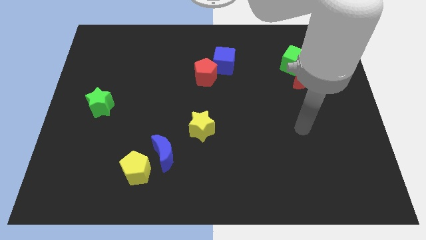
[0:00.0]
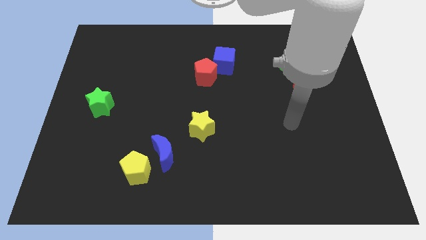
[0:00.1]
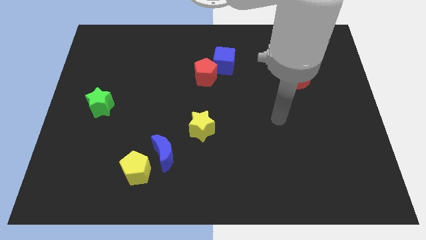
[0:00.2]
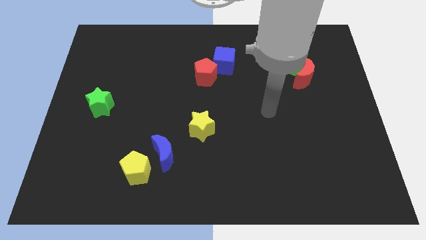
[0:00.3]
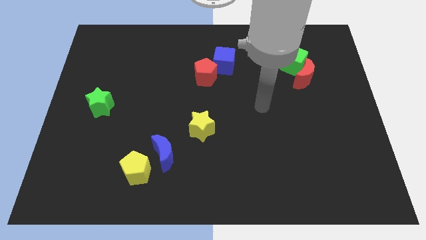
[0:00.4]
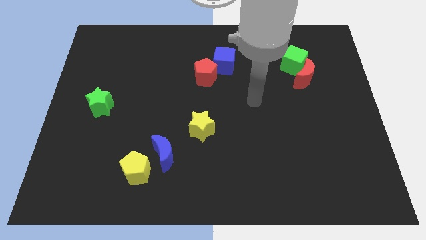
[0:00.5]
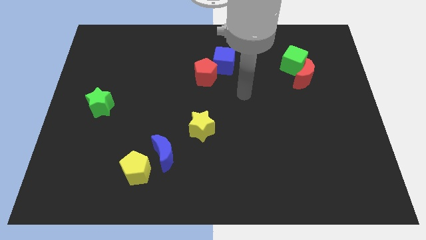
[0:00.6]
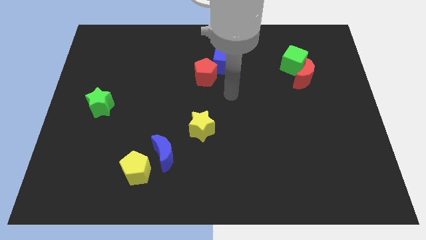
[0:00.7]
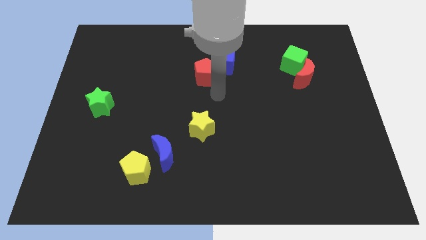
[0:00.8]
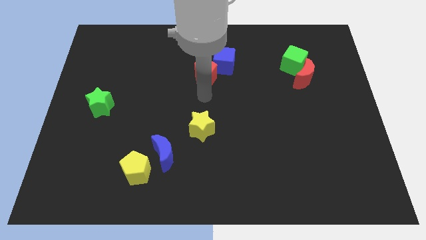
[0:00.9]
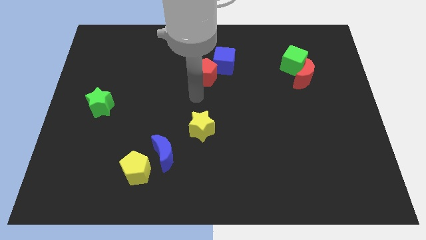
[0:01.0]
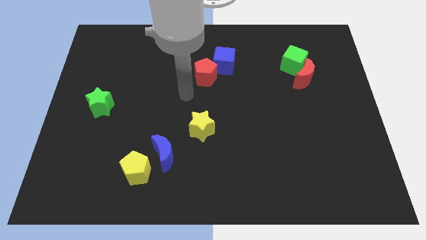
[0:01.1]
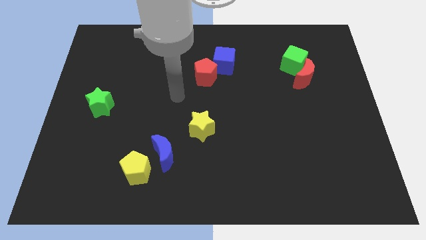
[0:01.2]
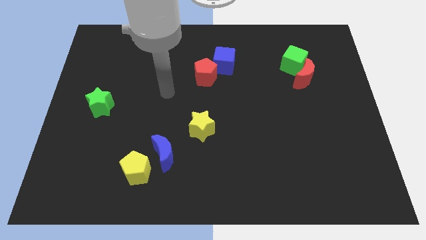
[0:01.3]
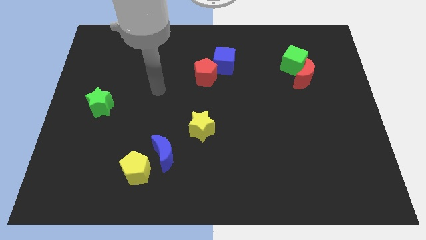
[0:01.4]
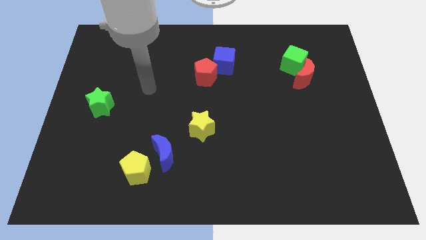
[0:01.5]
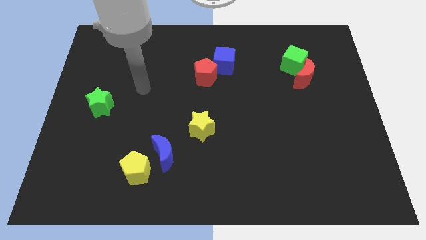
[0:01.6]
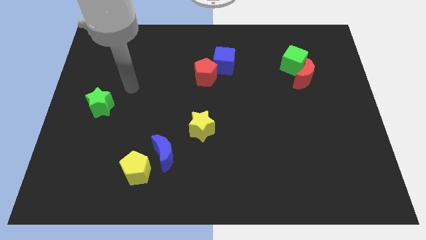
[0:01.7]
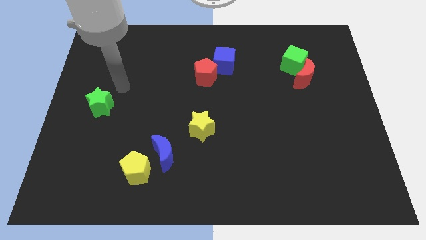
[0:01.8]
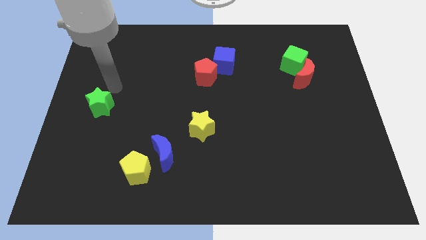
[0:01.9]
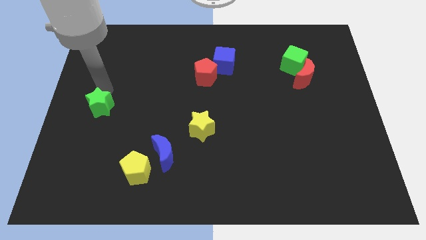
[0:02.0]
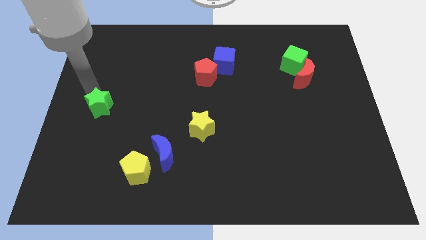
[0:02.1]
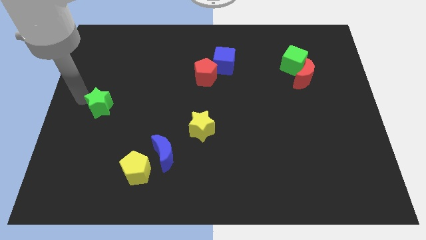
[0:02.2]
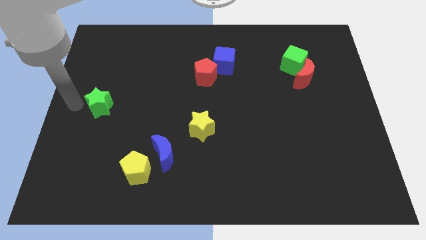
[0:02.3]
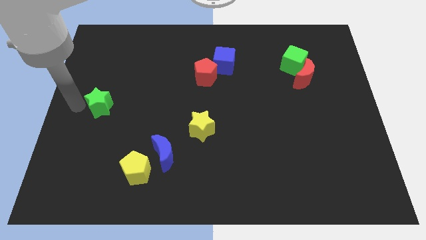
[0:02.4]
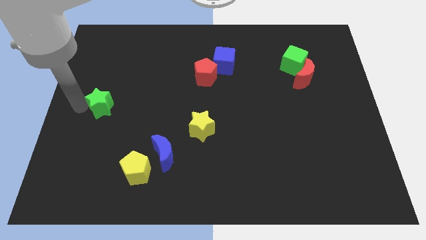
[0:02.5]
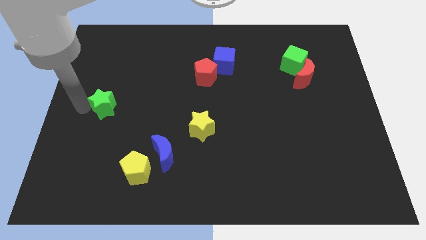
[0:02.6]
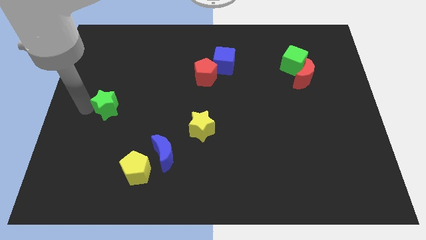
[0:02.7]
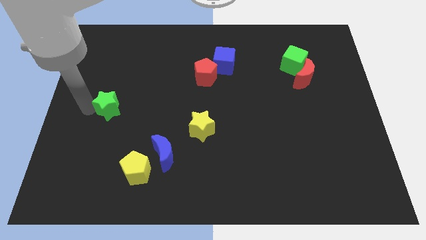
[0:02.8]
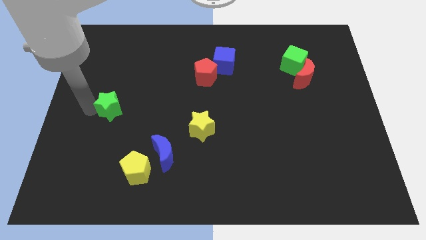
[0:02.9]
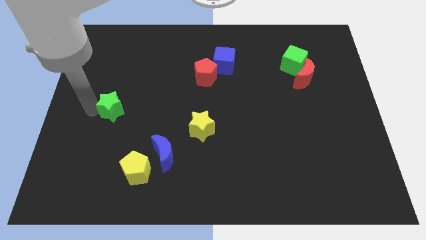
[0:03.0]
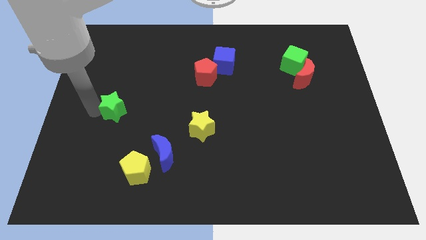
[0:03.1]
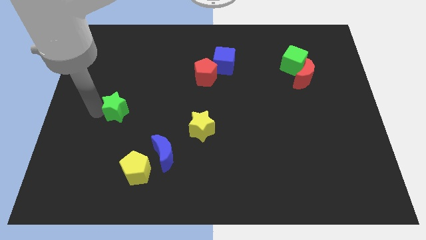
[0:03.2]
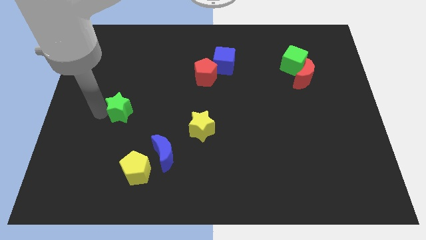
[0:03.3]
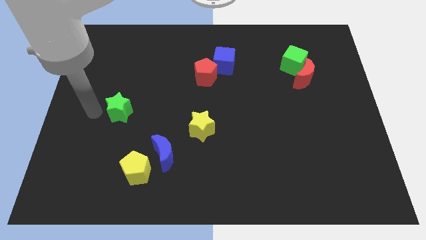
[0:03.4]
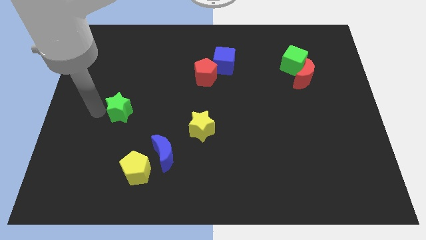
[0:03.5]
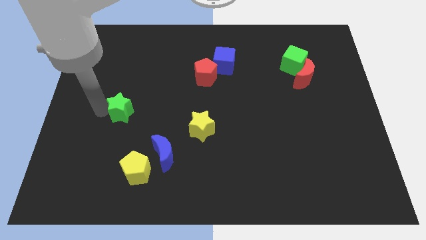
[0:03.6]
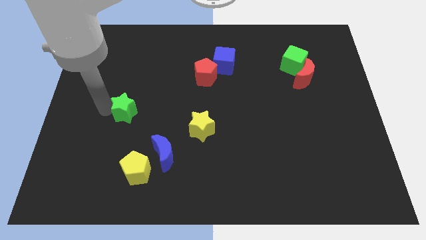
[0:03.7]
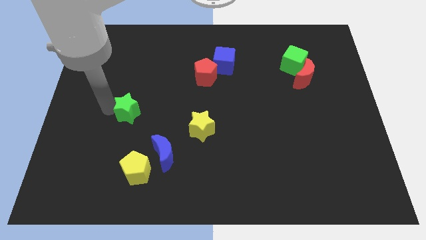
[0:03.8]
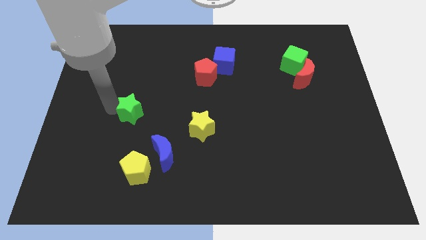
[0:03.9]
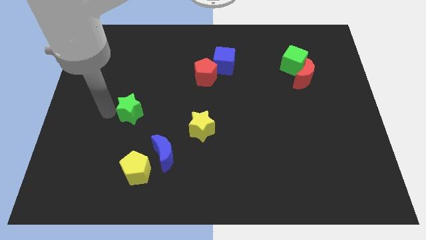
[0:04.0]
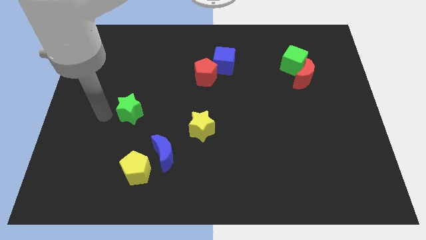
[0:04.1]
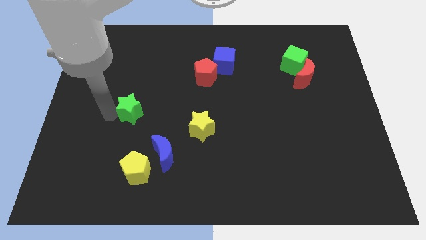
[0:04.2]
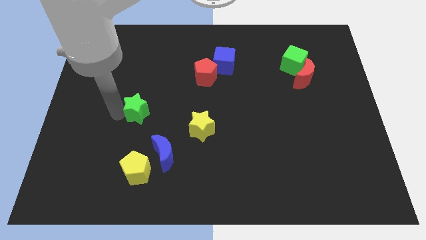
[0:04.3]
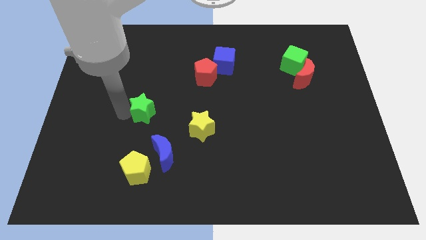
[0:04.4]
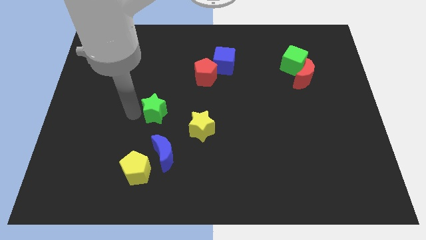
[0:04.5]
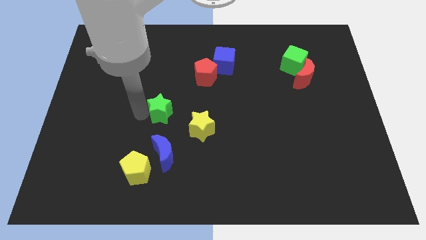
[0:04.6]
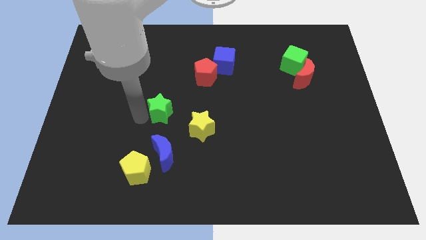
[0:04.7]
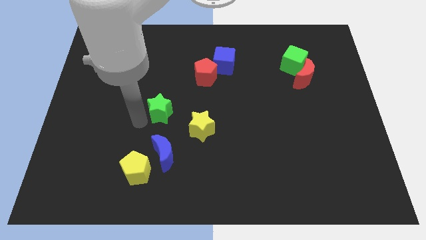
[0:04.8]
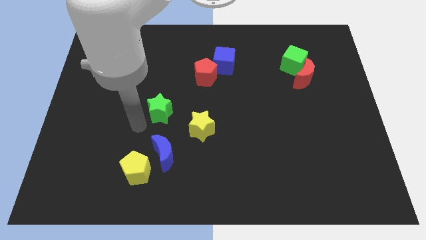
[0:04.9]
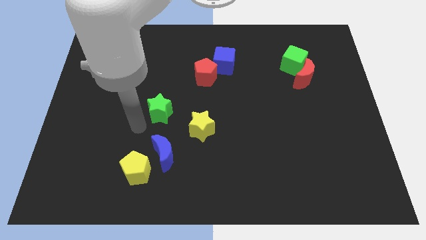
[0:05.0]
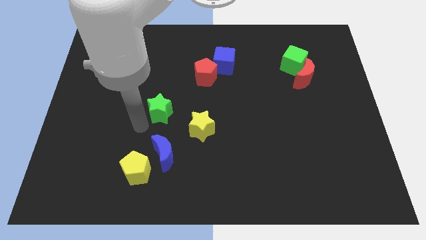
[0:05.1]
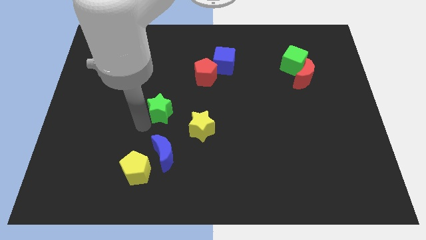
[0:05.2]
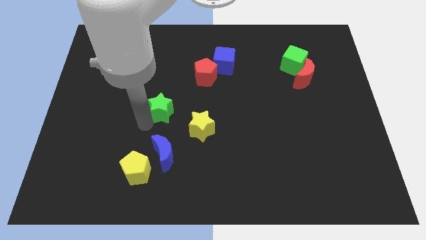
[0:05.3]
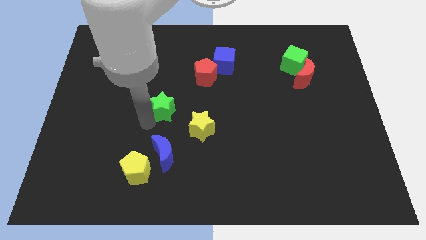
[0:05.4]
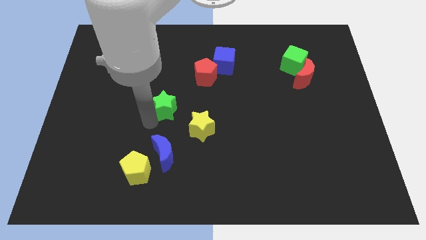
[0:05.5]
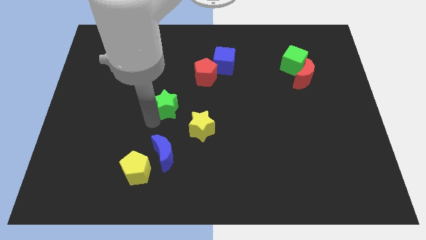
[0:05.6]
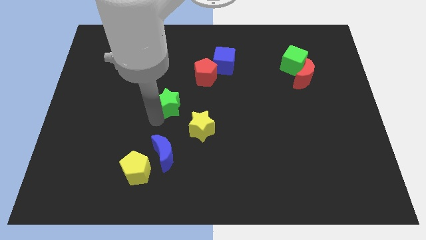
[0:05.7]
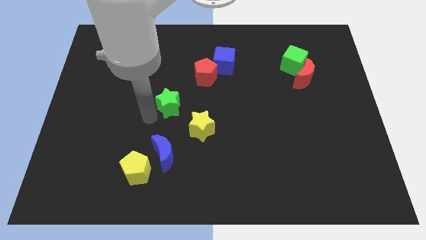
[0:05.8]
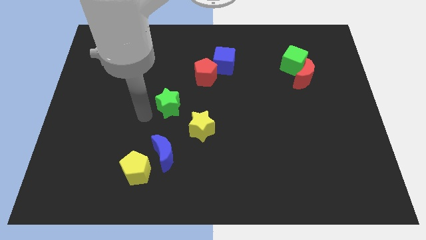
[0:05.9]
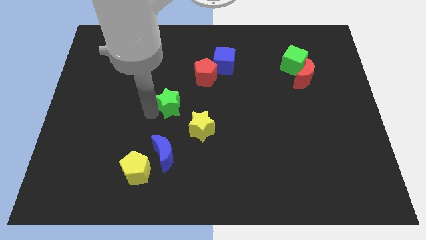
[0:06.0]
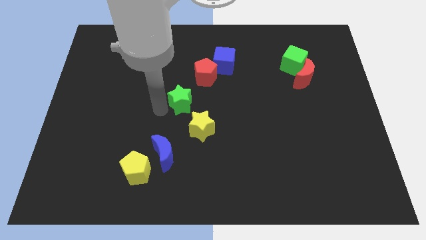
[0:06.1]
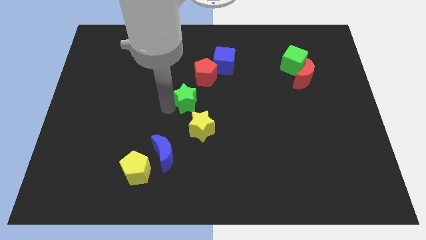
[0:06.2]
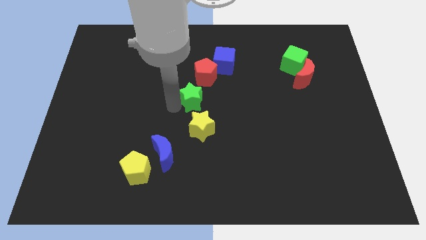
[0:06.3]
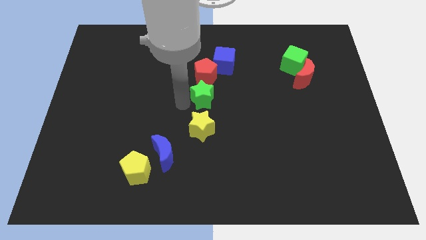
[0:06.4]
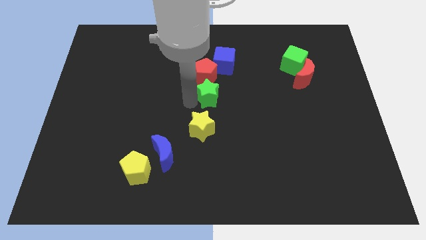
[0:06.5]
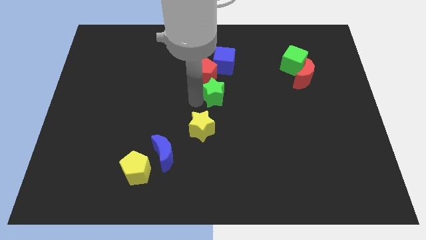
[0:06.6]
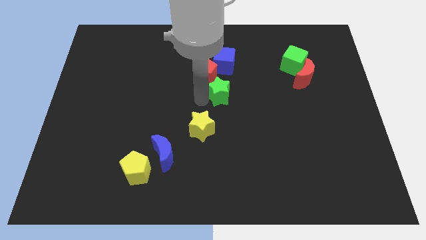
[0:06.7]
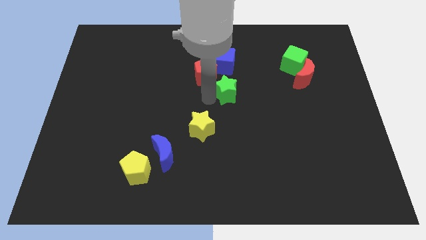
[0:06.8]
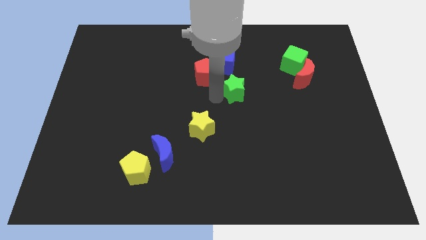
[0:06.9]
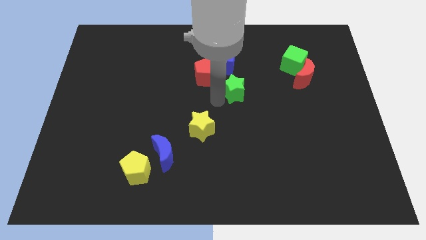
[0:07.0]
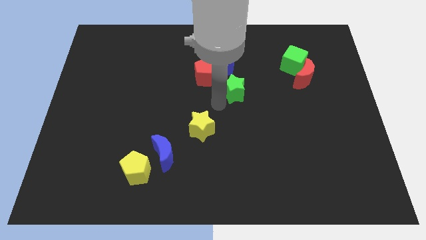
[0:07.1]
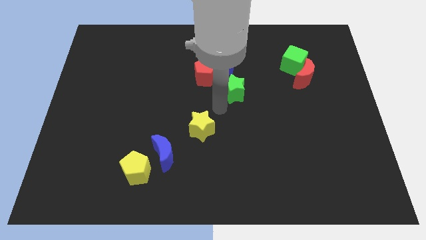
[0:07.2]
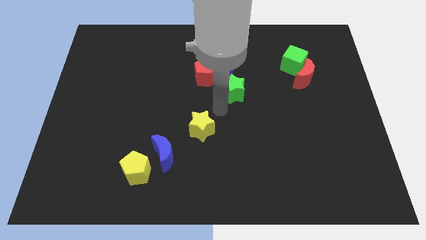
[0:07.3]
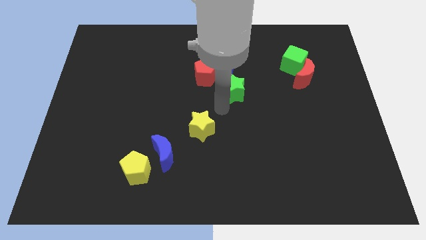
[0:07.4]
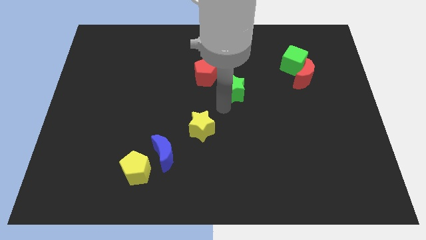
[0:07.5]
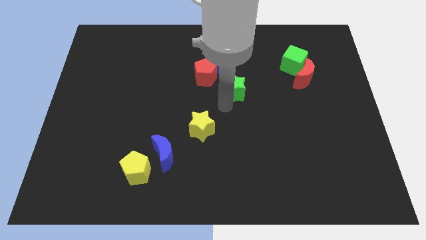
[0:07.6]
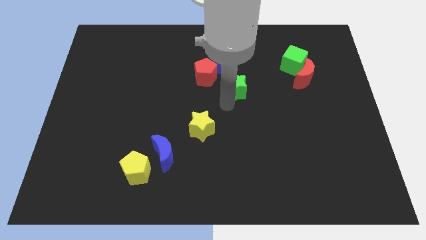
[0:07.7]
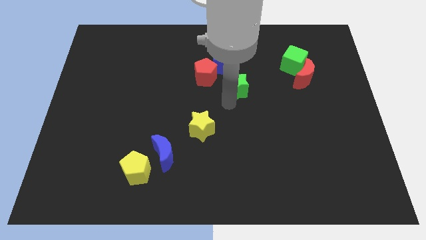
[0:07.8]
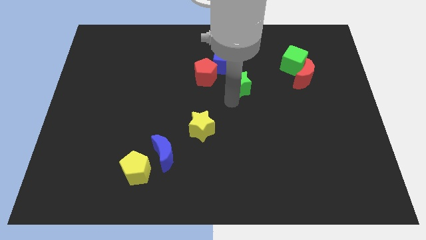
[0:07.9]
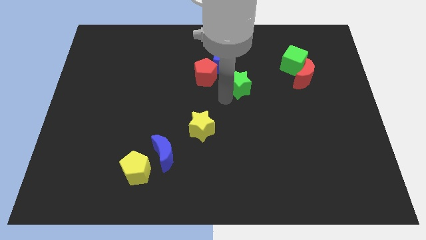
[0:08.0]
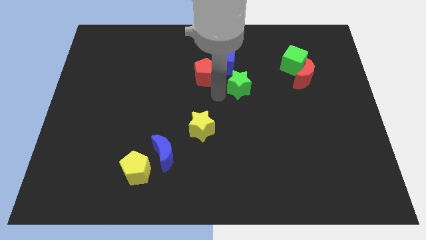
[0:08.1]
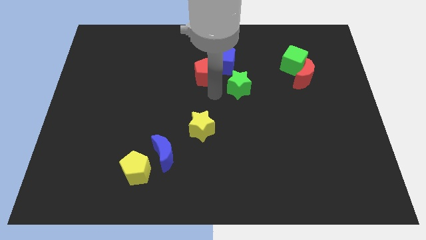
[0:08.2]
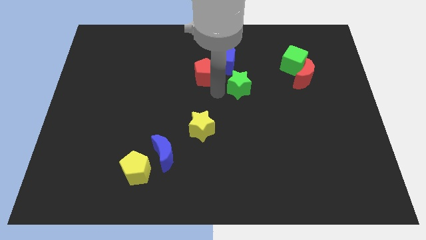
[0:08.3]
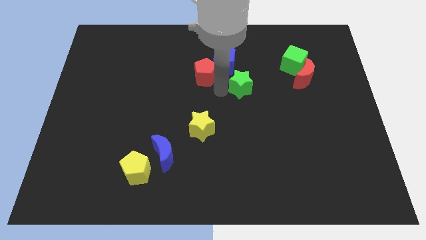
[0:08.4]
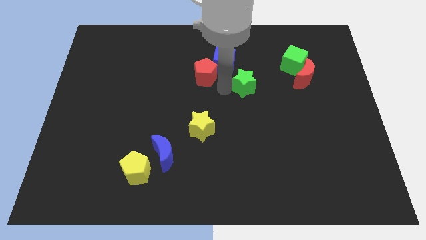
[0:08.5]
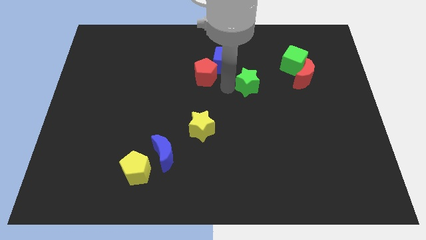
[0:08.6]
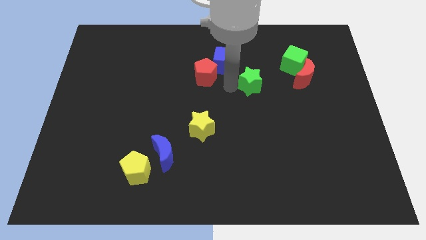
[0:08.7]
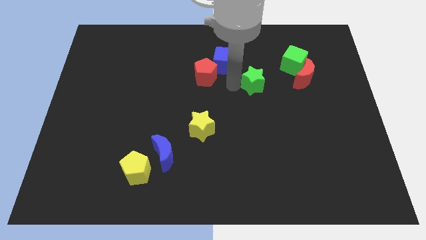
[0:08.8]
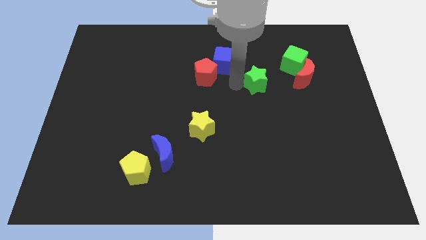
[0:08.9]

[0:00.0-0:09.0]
slide the green star to the bottom left of the green cube
